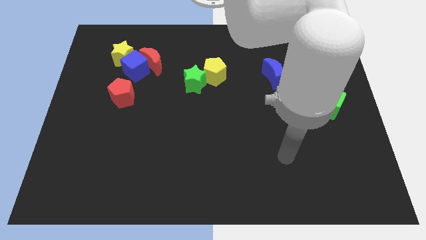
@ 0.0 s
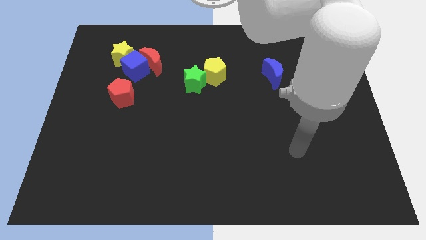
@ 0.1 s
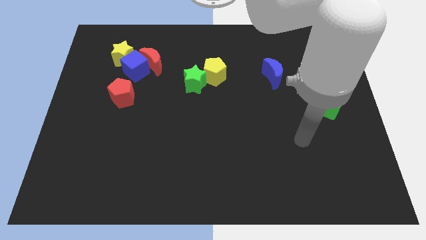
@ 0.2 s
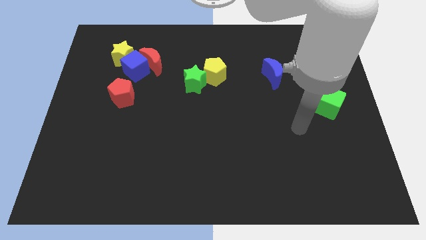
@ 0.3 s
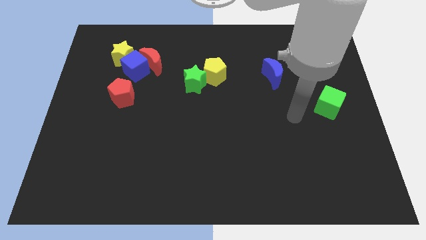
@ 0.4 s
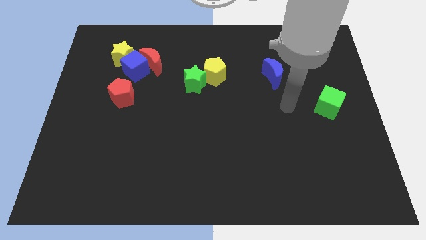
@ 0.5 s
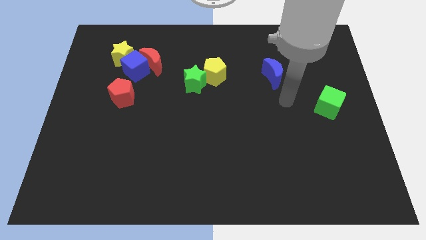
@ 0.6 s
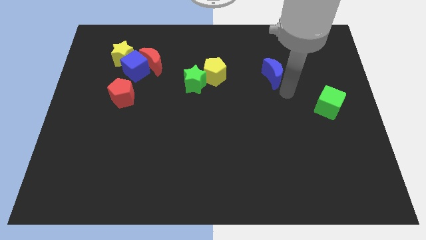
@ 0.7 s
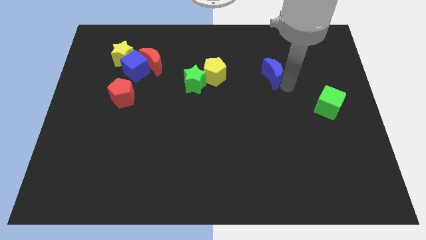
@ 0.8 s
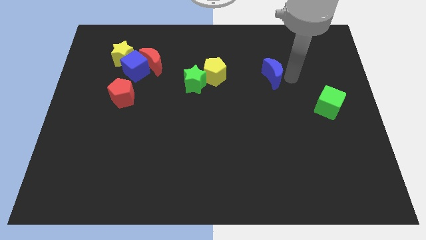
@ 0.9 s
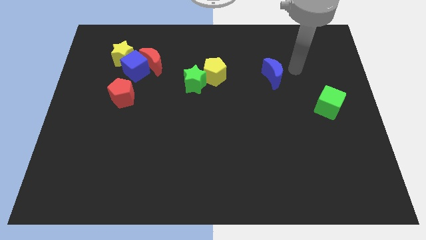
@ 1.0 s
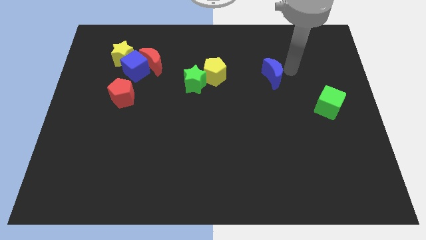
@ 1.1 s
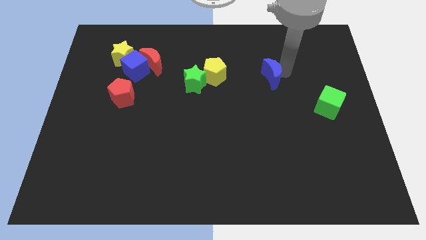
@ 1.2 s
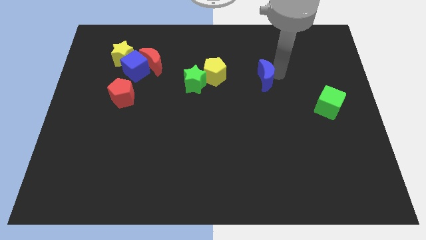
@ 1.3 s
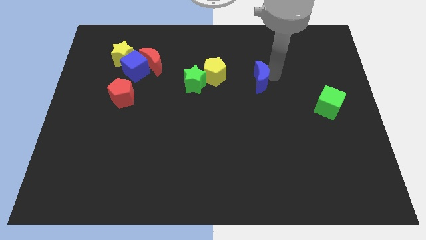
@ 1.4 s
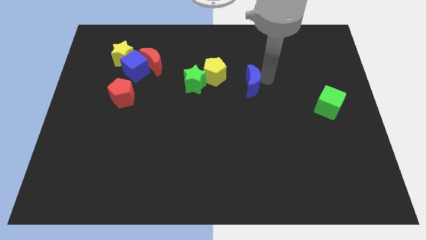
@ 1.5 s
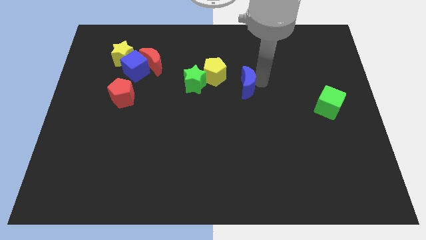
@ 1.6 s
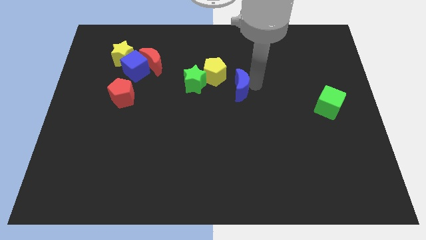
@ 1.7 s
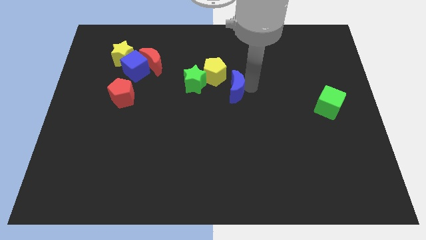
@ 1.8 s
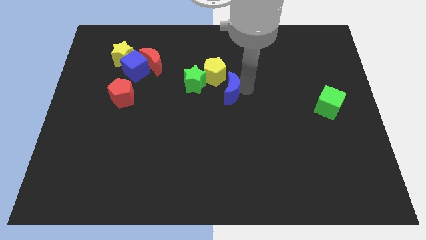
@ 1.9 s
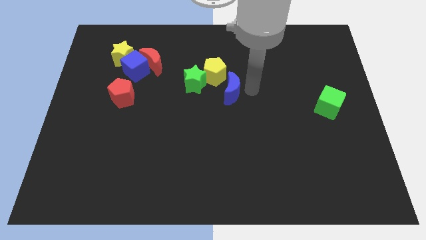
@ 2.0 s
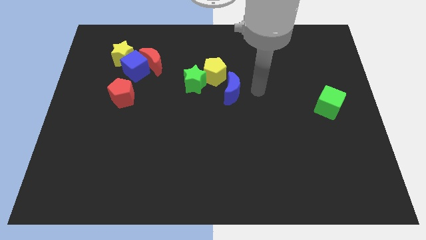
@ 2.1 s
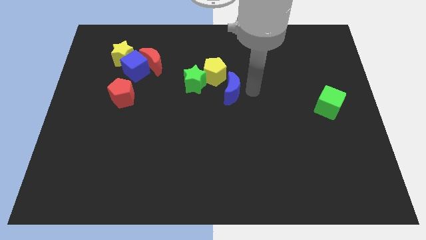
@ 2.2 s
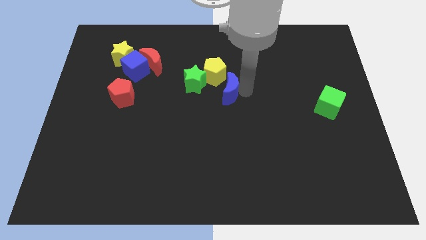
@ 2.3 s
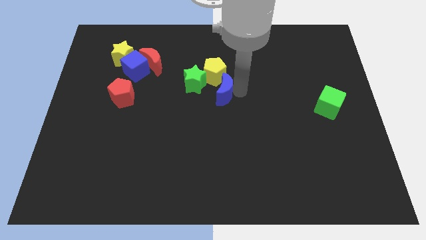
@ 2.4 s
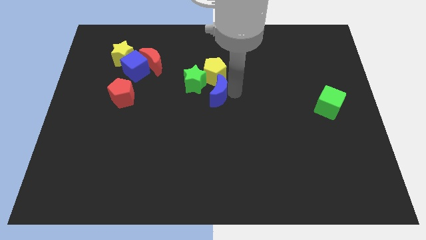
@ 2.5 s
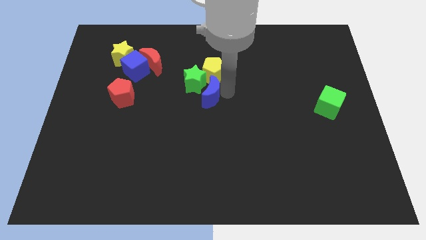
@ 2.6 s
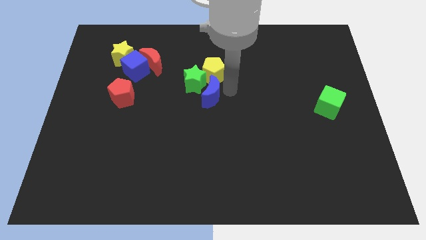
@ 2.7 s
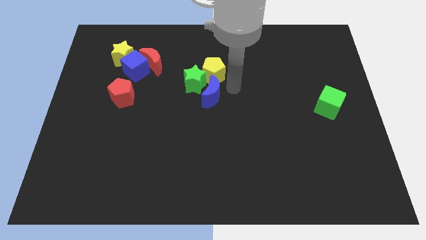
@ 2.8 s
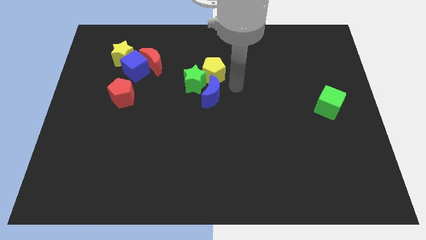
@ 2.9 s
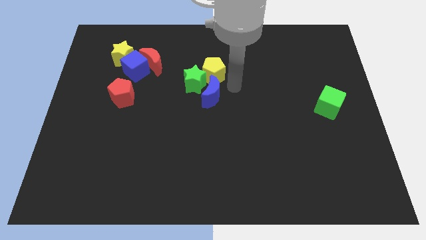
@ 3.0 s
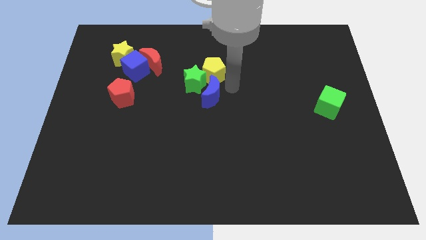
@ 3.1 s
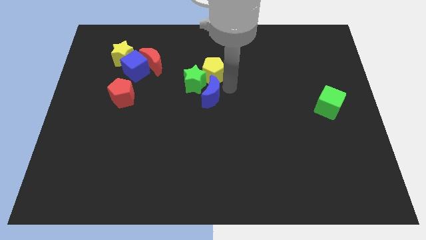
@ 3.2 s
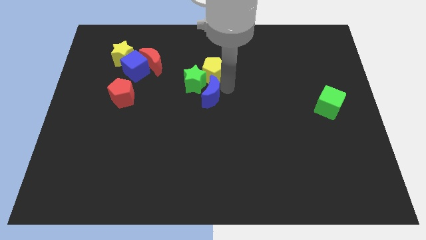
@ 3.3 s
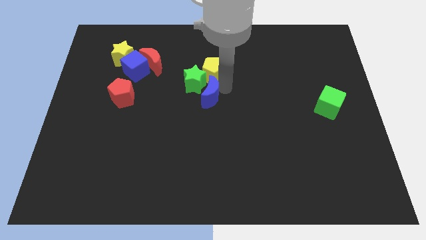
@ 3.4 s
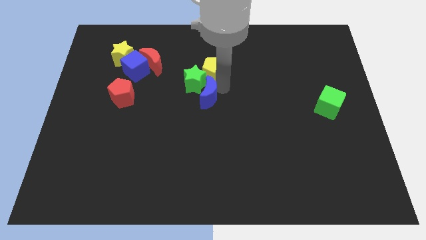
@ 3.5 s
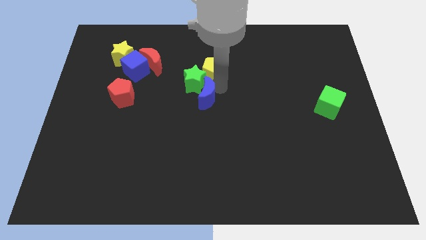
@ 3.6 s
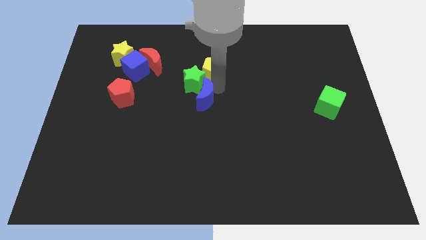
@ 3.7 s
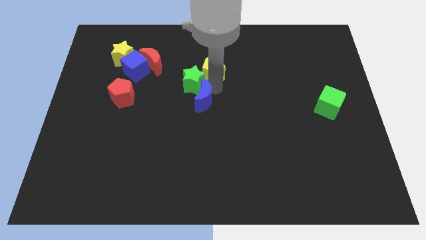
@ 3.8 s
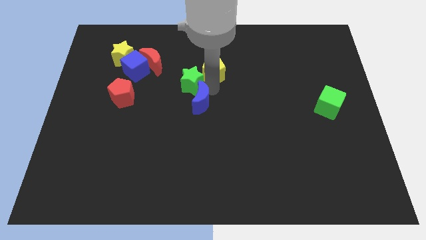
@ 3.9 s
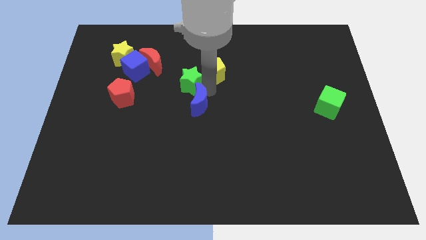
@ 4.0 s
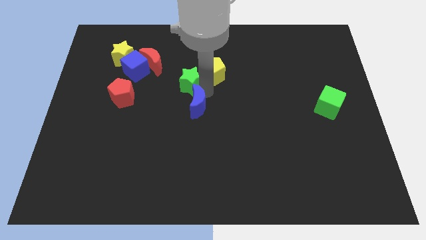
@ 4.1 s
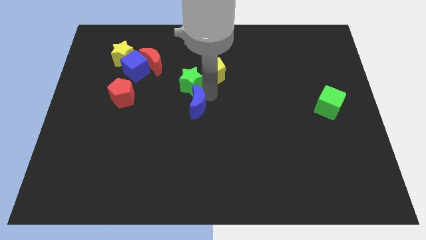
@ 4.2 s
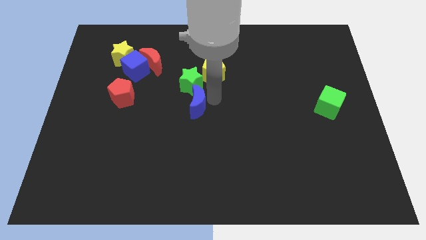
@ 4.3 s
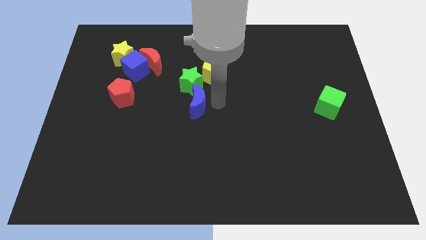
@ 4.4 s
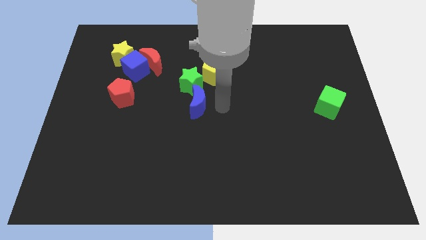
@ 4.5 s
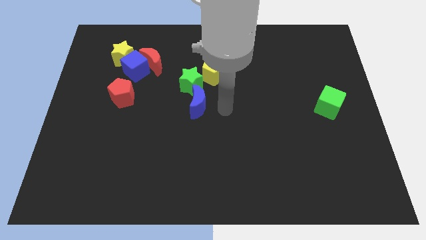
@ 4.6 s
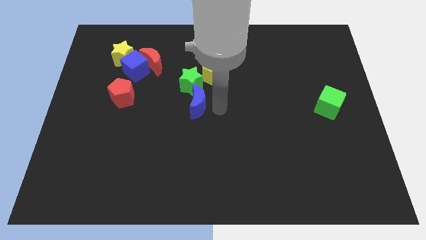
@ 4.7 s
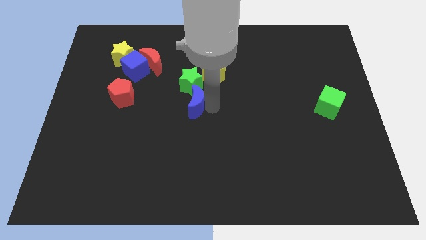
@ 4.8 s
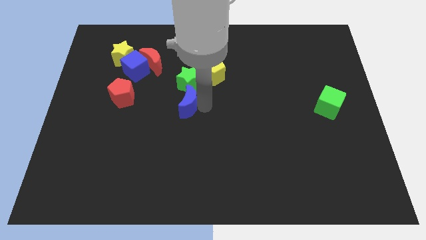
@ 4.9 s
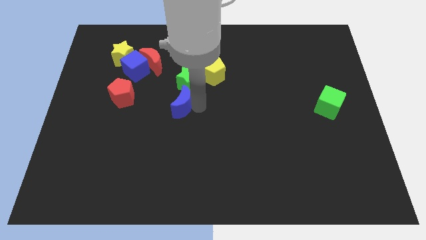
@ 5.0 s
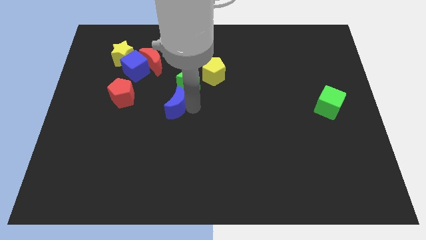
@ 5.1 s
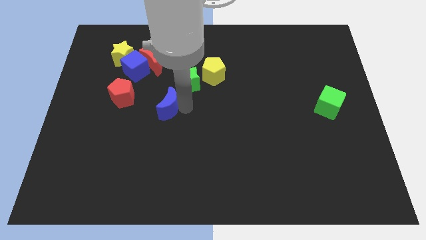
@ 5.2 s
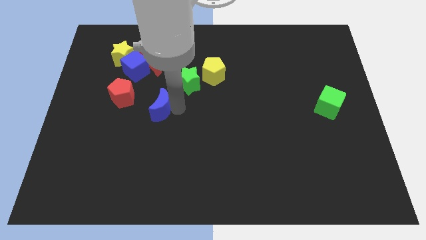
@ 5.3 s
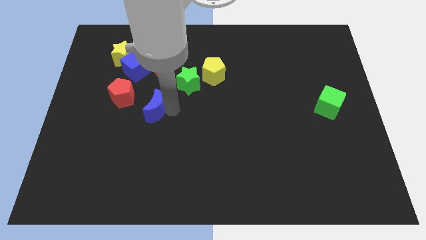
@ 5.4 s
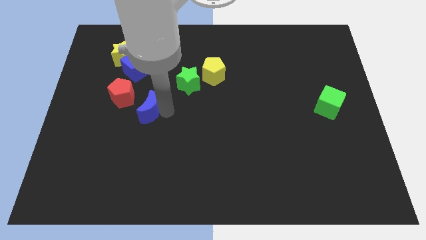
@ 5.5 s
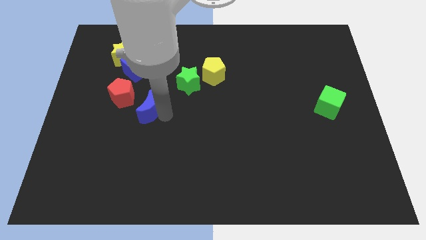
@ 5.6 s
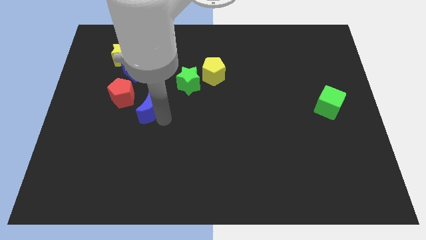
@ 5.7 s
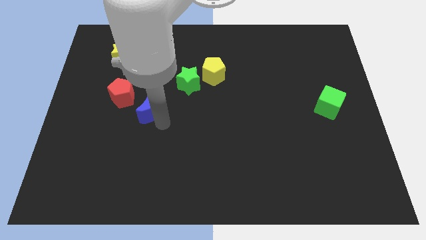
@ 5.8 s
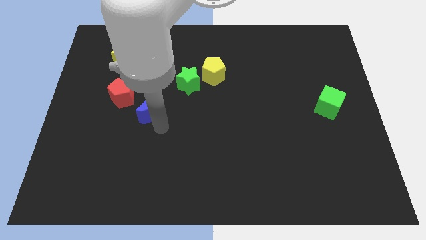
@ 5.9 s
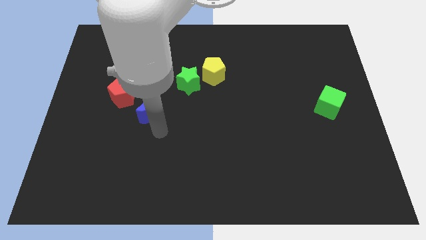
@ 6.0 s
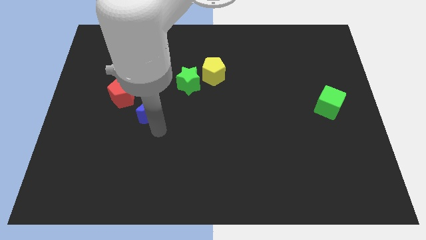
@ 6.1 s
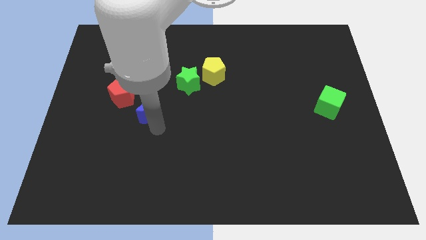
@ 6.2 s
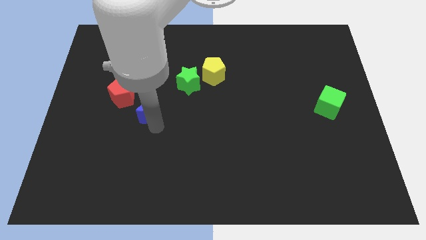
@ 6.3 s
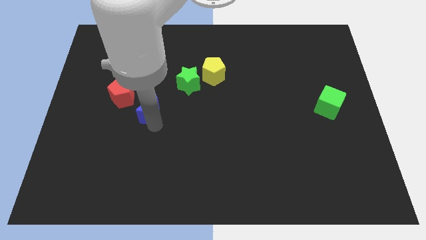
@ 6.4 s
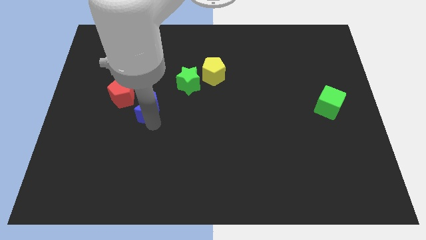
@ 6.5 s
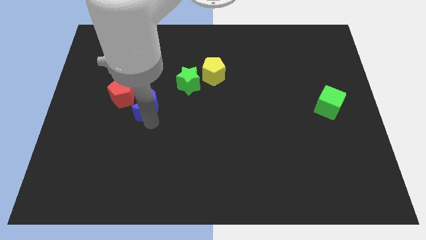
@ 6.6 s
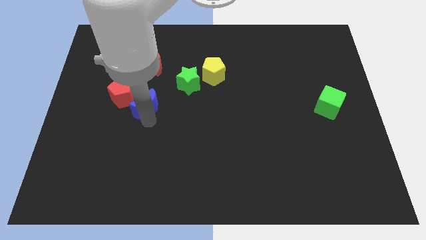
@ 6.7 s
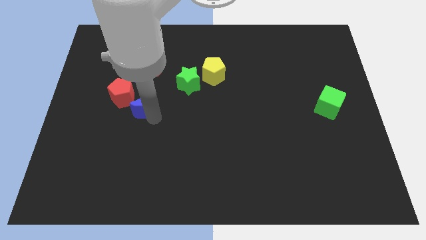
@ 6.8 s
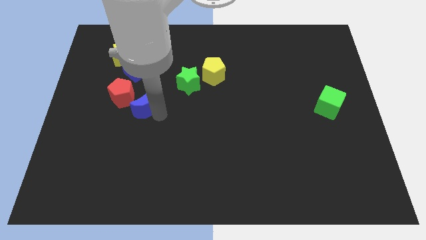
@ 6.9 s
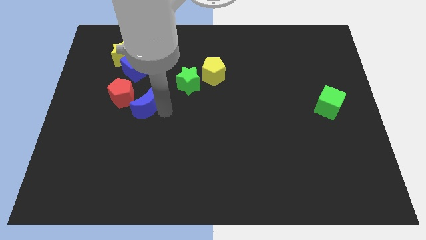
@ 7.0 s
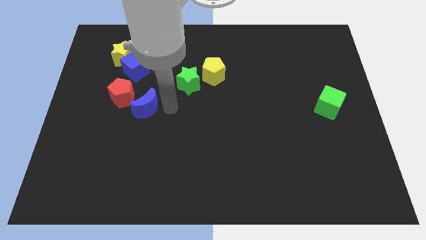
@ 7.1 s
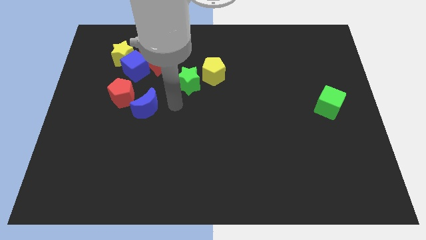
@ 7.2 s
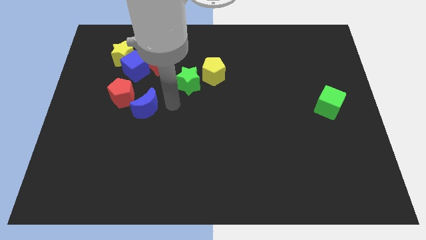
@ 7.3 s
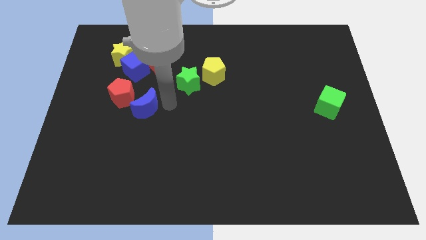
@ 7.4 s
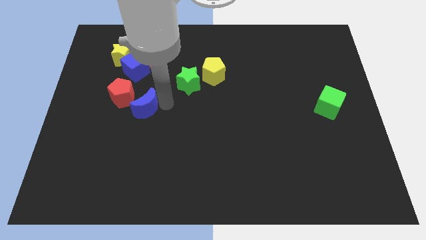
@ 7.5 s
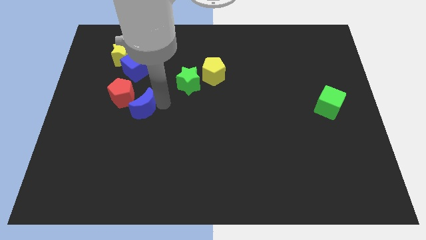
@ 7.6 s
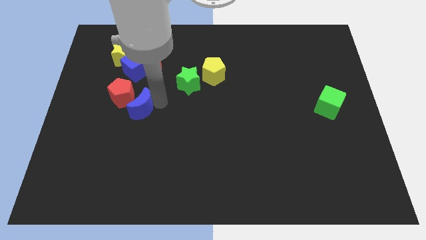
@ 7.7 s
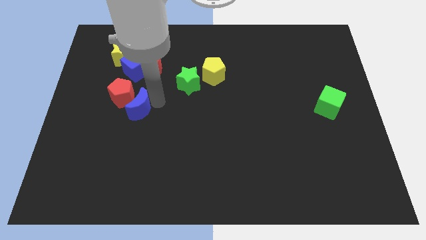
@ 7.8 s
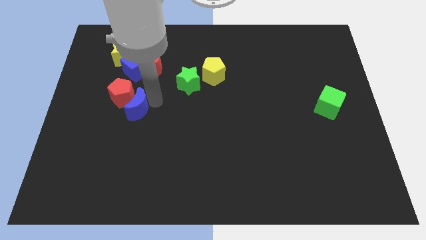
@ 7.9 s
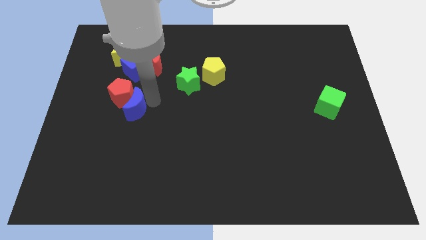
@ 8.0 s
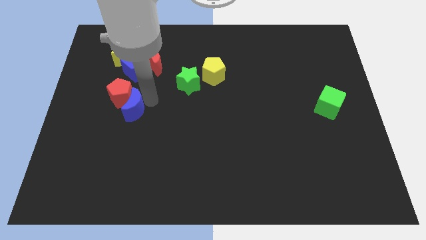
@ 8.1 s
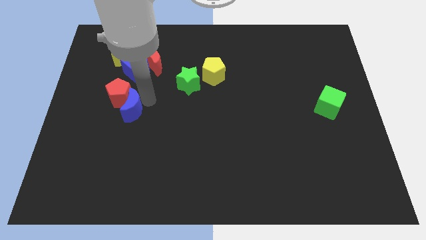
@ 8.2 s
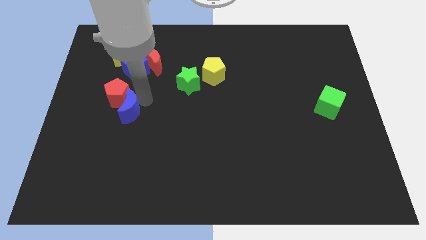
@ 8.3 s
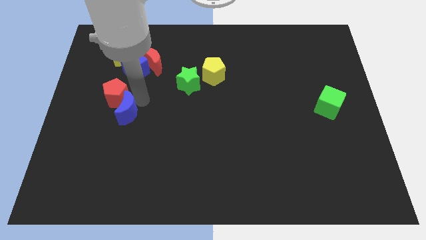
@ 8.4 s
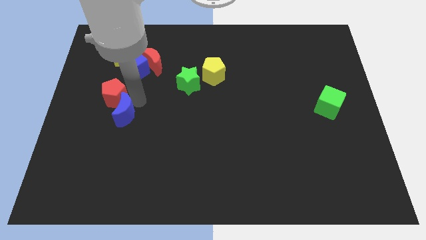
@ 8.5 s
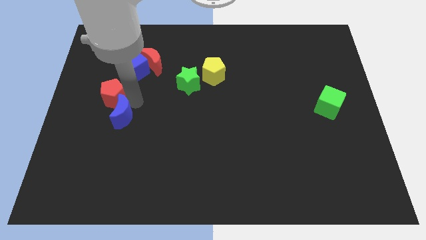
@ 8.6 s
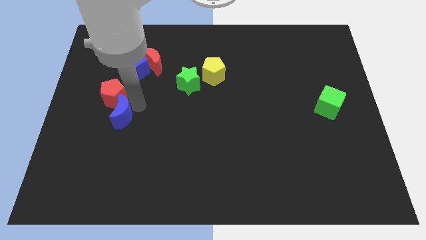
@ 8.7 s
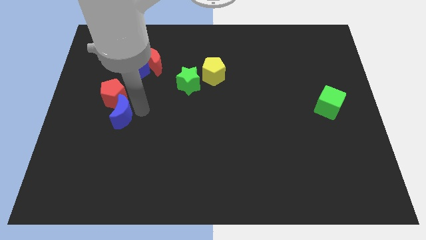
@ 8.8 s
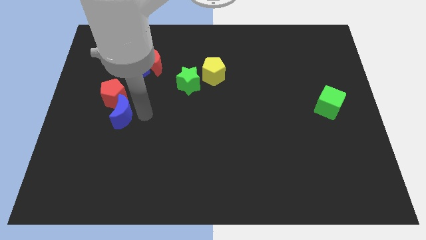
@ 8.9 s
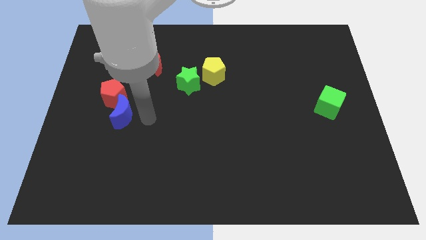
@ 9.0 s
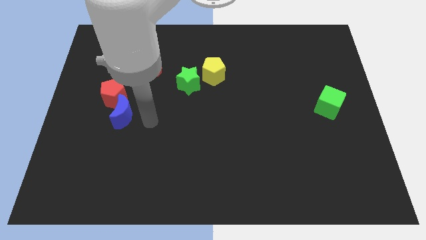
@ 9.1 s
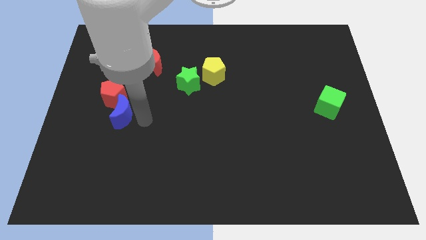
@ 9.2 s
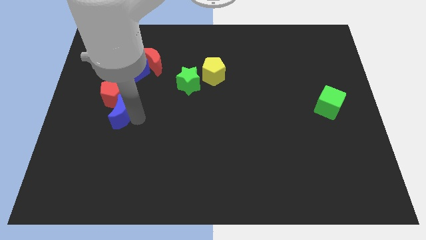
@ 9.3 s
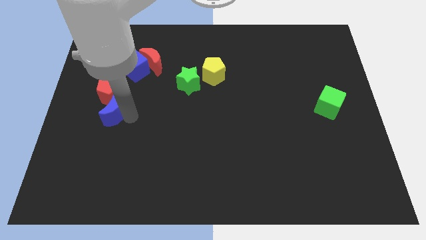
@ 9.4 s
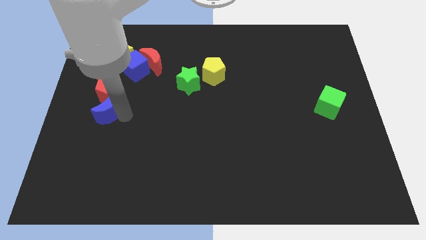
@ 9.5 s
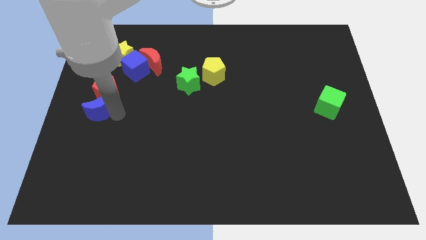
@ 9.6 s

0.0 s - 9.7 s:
move the blue moon to the left side
